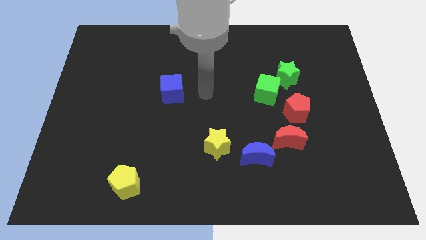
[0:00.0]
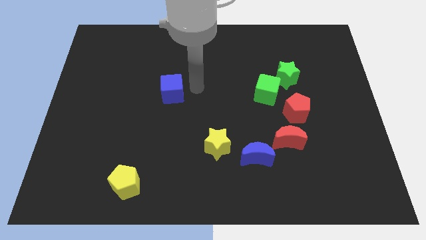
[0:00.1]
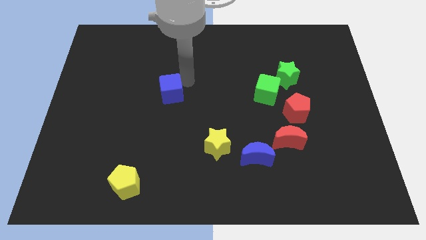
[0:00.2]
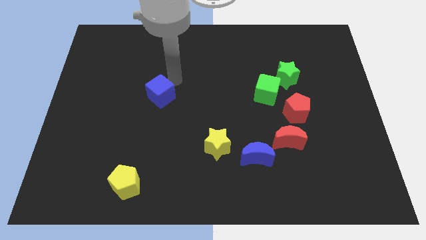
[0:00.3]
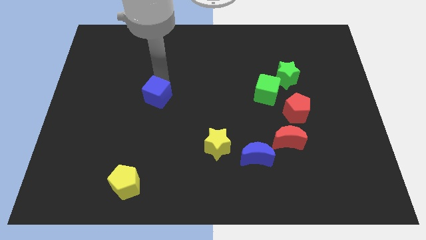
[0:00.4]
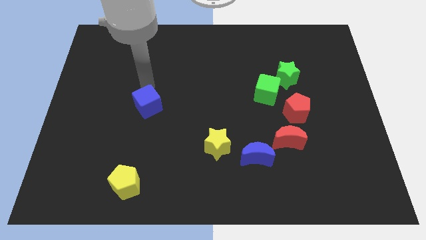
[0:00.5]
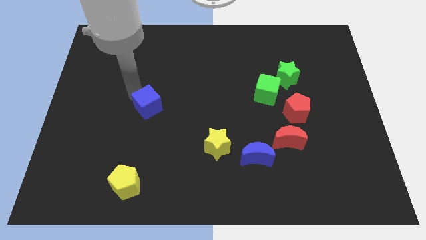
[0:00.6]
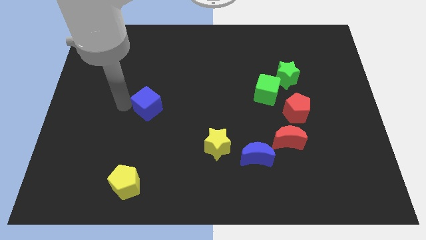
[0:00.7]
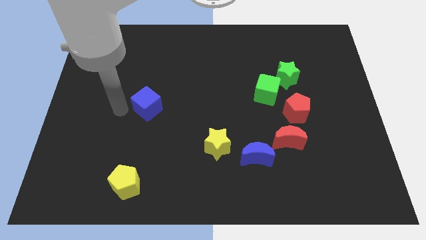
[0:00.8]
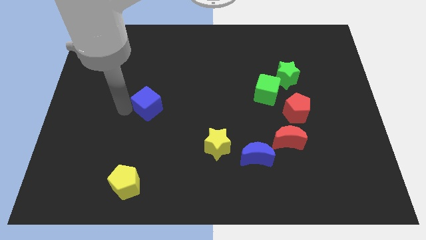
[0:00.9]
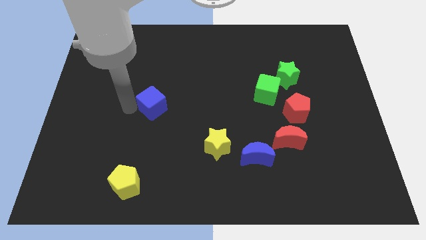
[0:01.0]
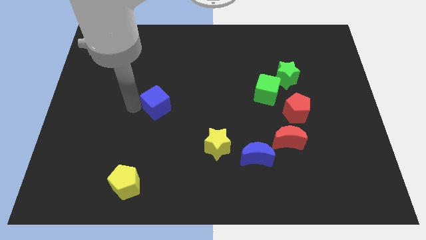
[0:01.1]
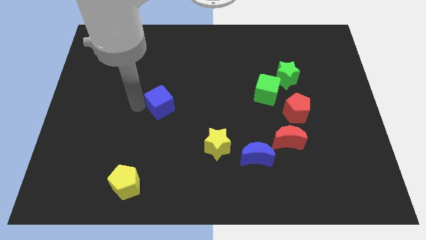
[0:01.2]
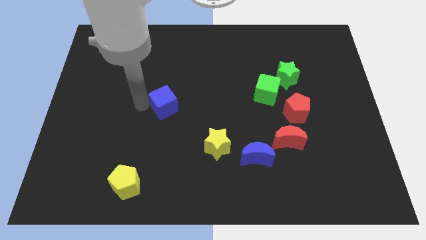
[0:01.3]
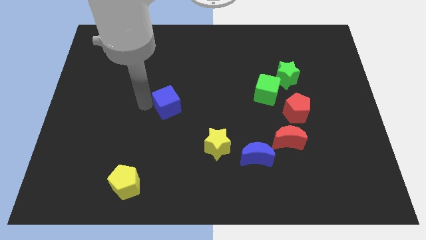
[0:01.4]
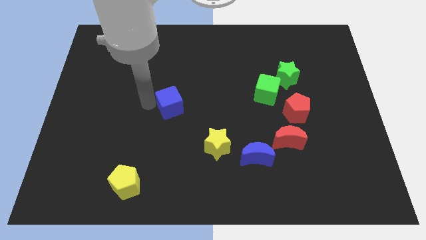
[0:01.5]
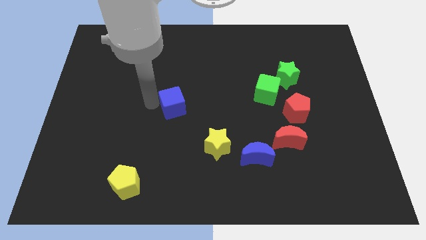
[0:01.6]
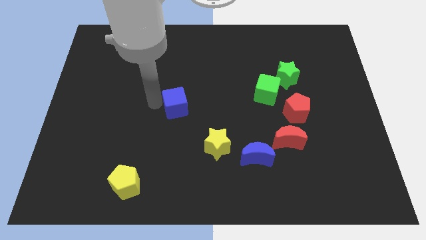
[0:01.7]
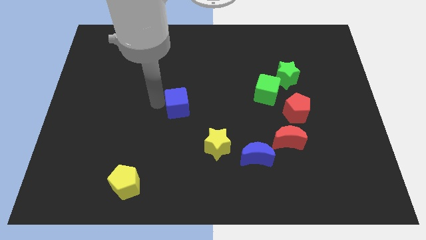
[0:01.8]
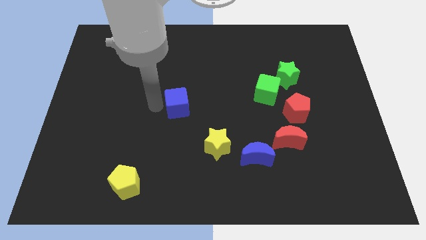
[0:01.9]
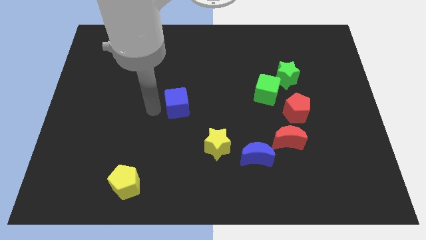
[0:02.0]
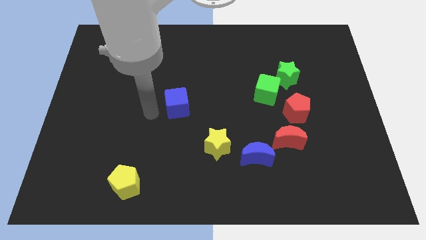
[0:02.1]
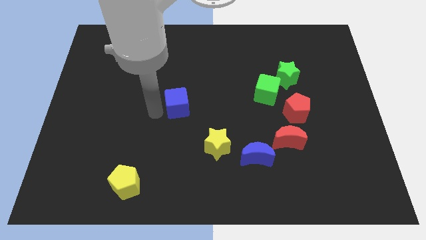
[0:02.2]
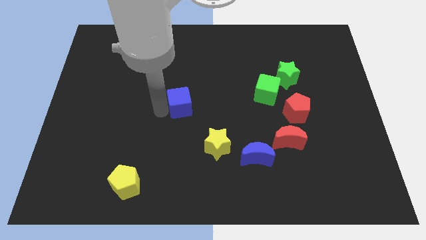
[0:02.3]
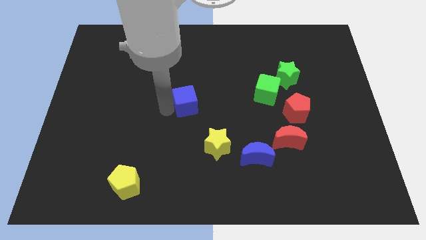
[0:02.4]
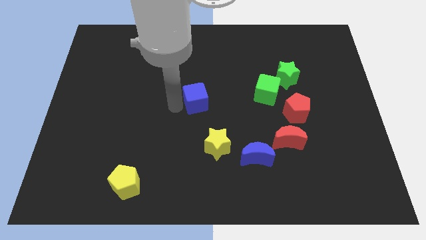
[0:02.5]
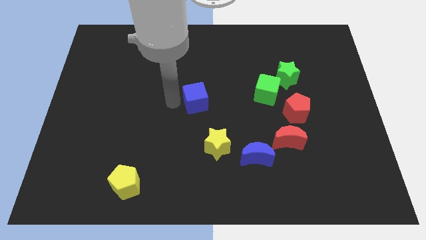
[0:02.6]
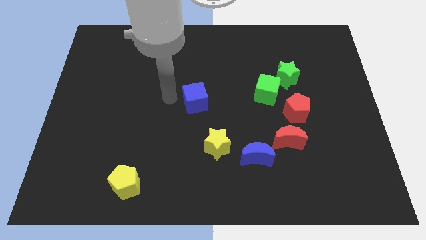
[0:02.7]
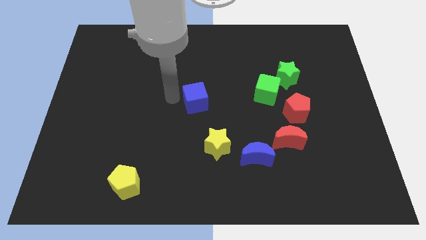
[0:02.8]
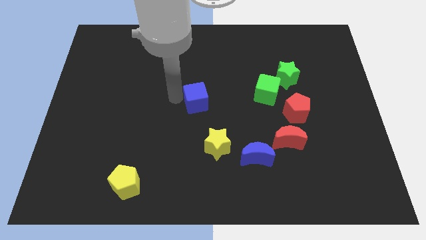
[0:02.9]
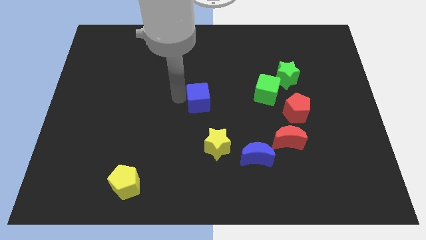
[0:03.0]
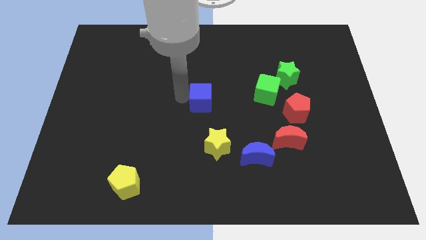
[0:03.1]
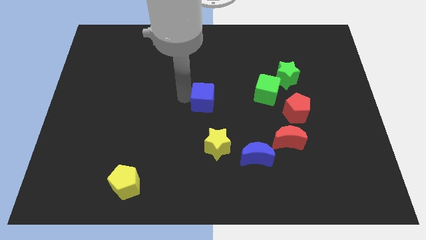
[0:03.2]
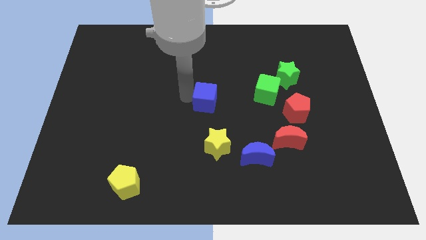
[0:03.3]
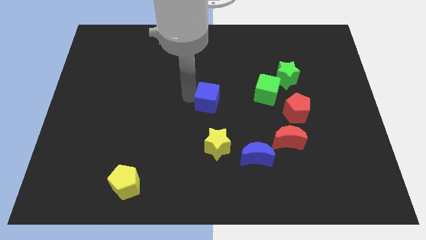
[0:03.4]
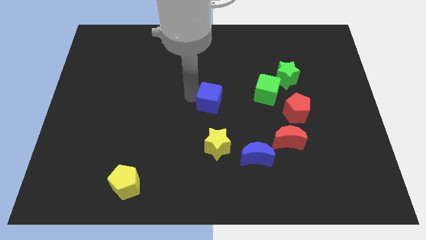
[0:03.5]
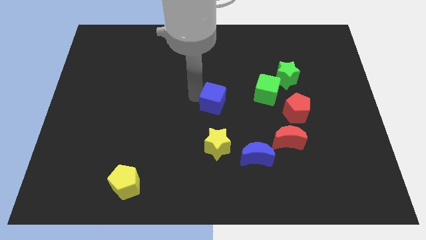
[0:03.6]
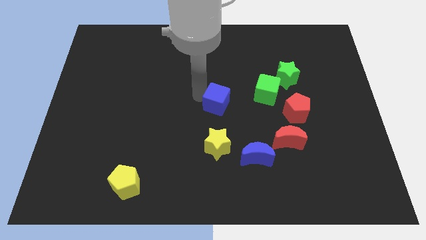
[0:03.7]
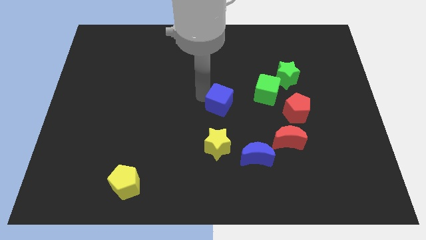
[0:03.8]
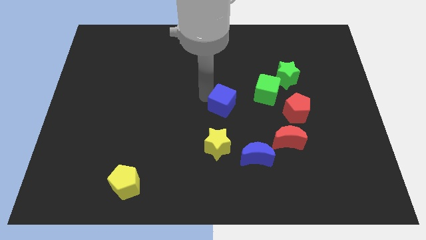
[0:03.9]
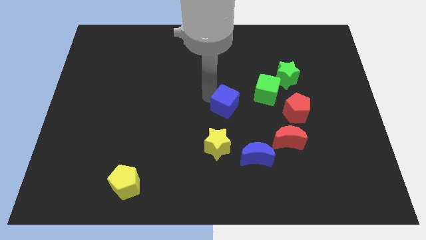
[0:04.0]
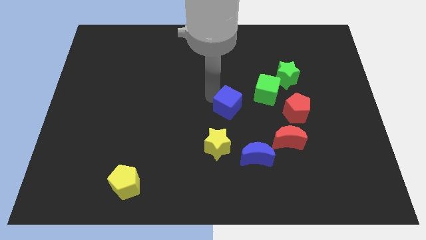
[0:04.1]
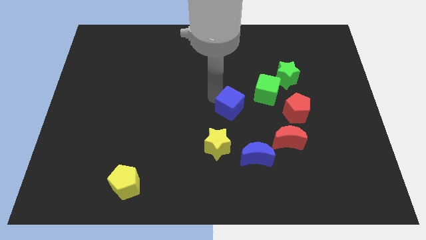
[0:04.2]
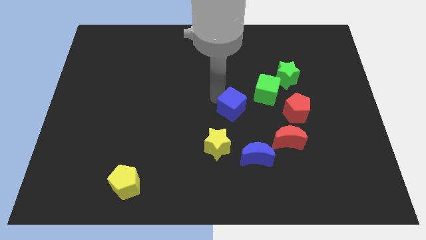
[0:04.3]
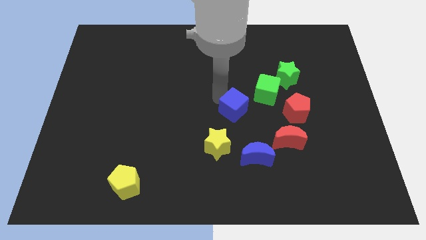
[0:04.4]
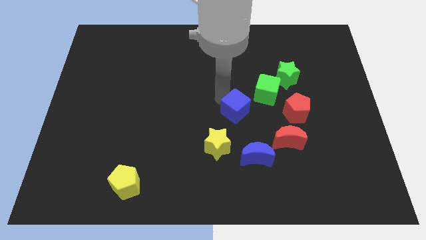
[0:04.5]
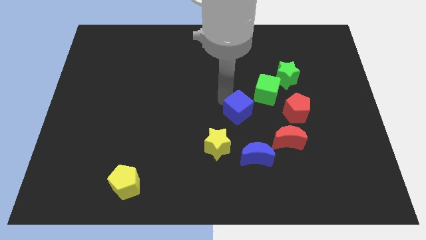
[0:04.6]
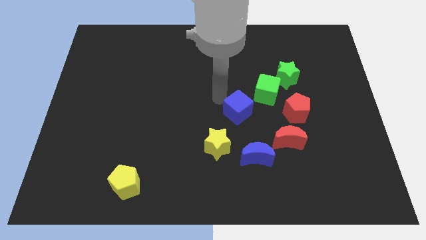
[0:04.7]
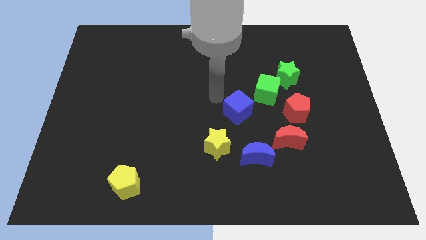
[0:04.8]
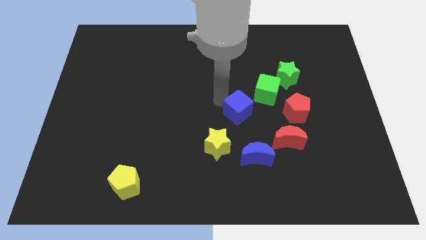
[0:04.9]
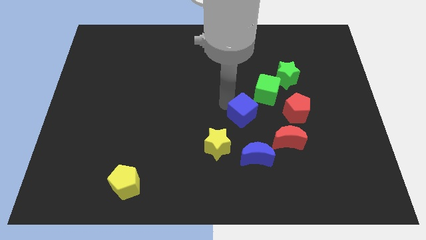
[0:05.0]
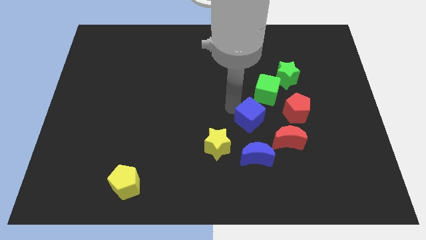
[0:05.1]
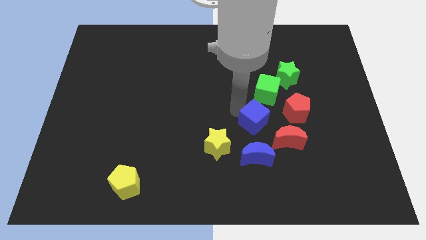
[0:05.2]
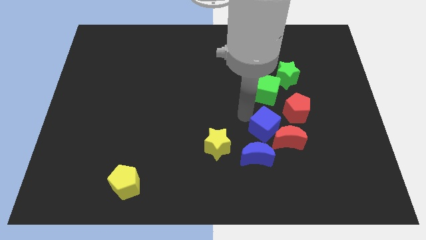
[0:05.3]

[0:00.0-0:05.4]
push the blue cube next to the red moon

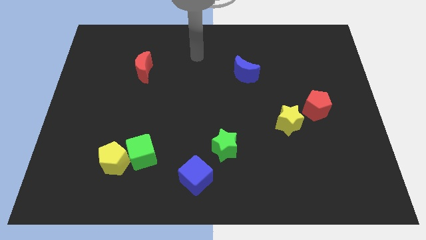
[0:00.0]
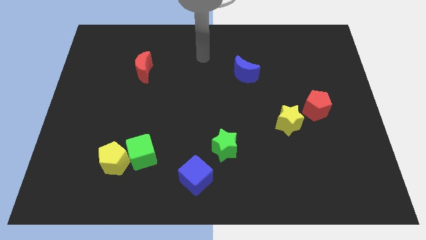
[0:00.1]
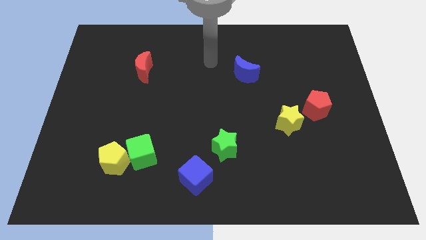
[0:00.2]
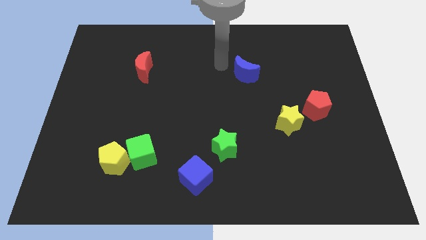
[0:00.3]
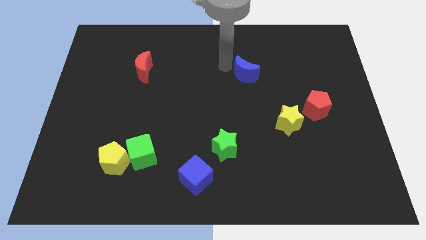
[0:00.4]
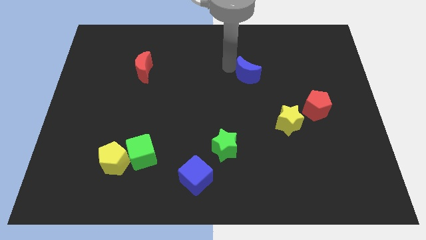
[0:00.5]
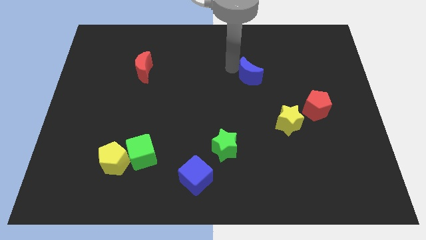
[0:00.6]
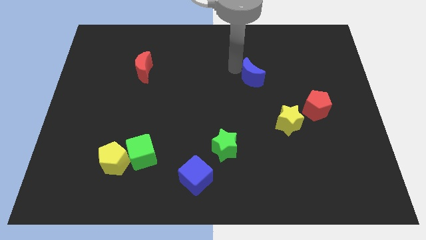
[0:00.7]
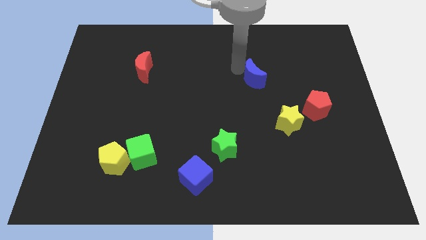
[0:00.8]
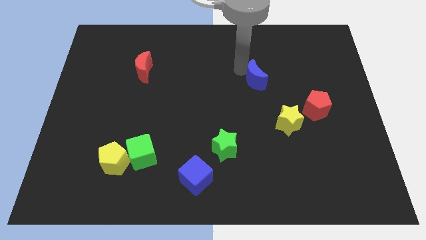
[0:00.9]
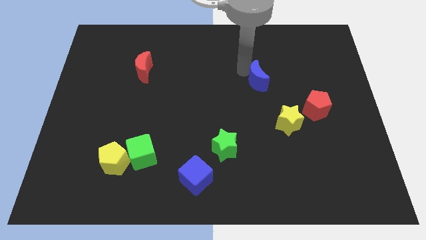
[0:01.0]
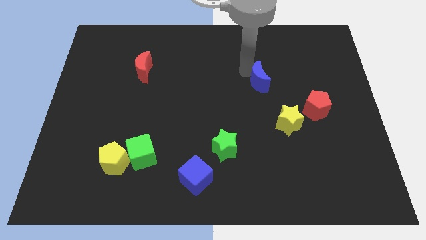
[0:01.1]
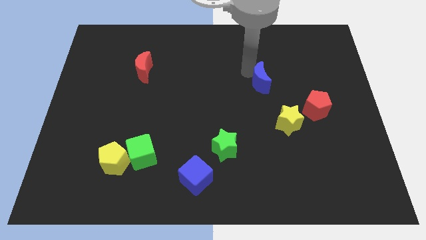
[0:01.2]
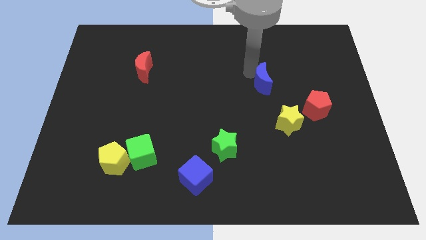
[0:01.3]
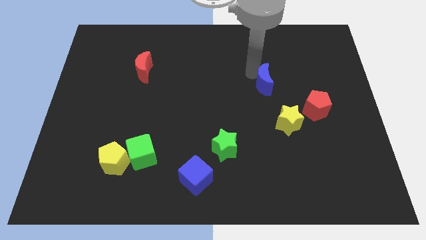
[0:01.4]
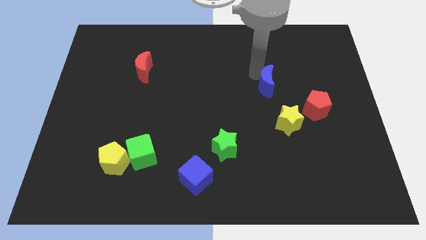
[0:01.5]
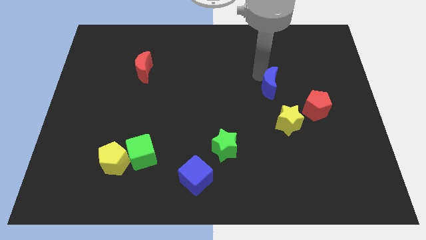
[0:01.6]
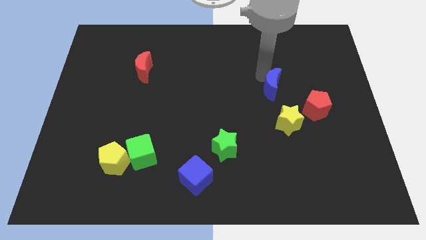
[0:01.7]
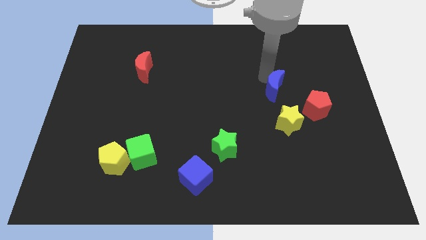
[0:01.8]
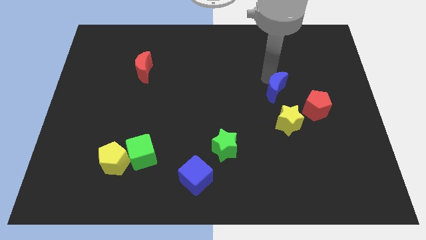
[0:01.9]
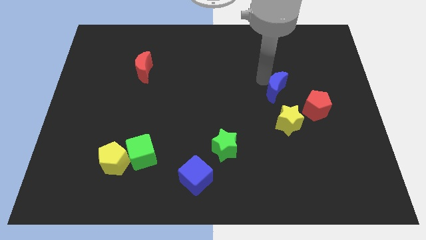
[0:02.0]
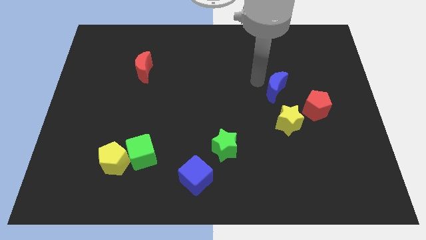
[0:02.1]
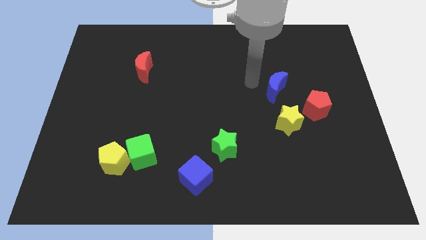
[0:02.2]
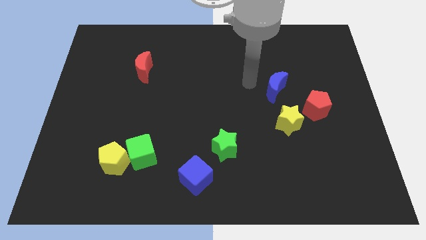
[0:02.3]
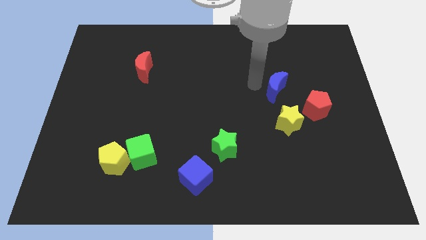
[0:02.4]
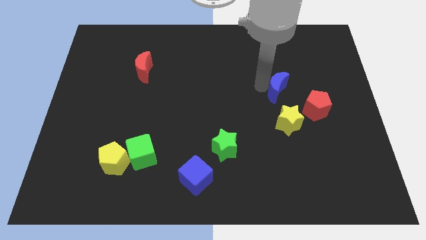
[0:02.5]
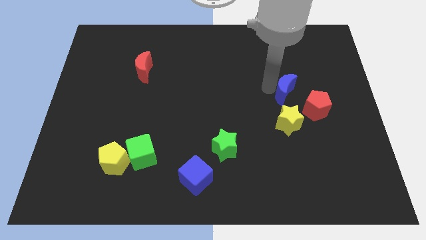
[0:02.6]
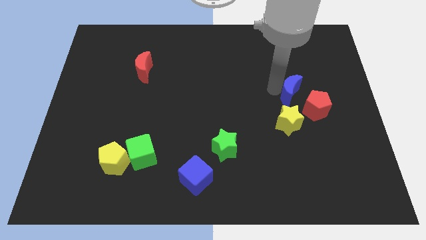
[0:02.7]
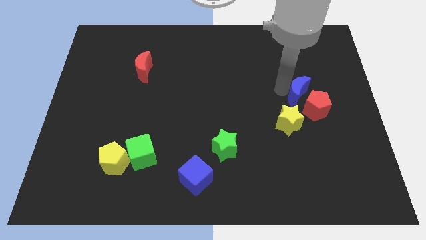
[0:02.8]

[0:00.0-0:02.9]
push the blue moon to the red pentagon
